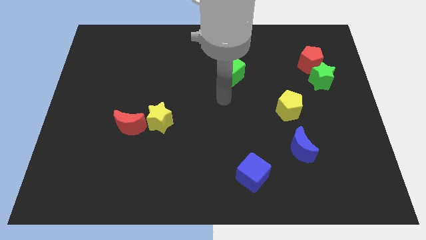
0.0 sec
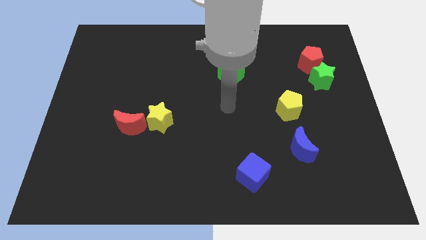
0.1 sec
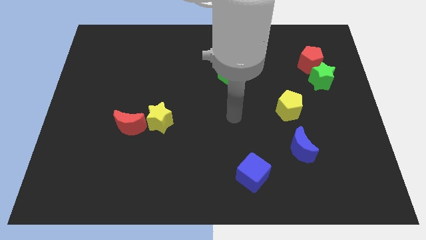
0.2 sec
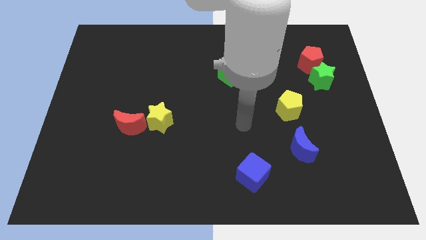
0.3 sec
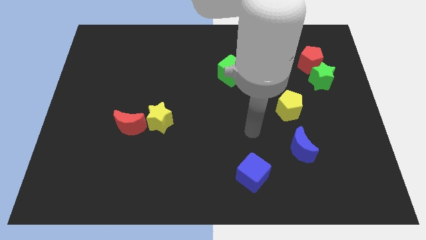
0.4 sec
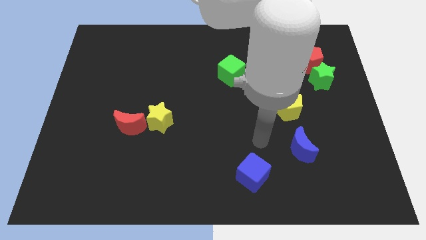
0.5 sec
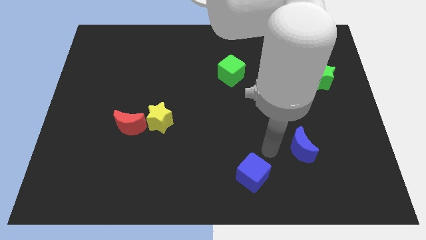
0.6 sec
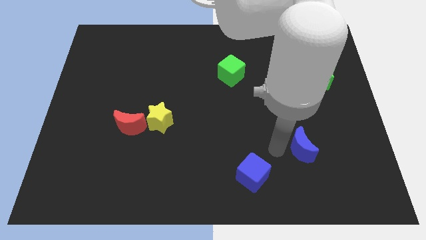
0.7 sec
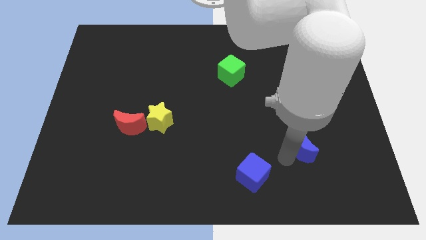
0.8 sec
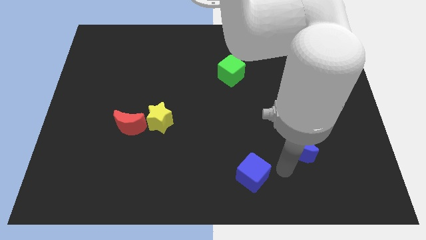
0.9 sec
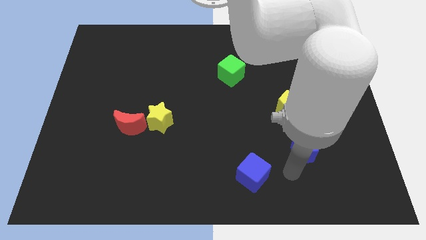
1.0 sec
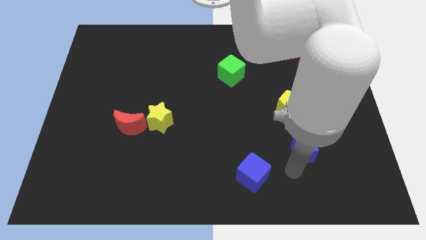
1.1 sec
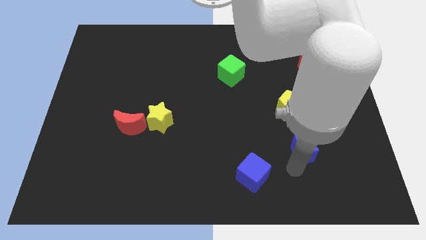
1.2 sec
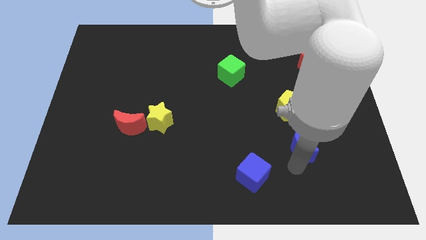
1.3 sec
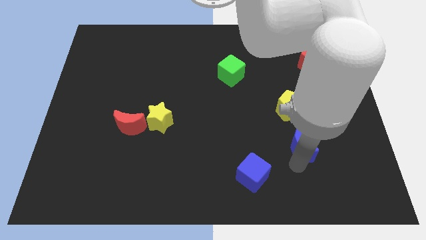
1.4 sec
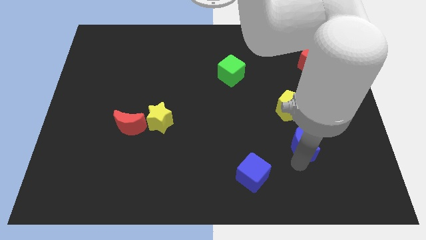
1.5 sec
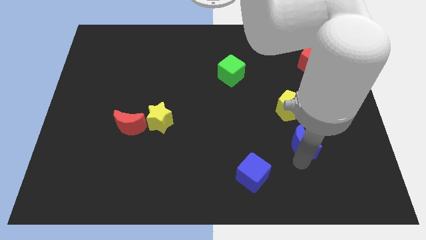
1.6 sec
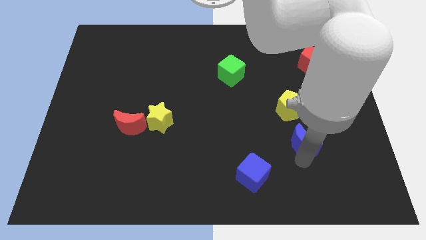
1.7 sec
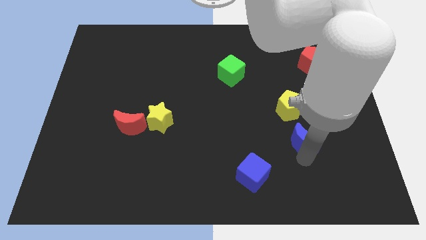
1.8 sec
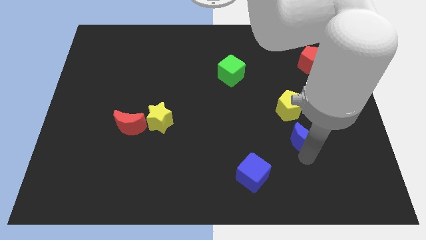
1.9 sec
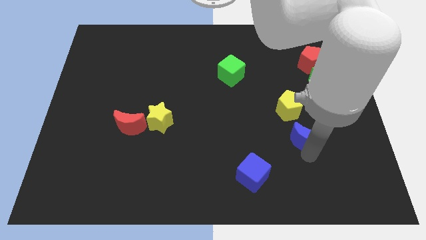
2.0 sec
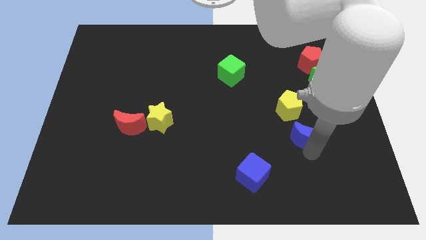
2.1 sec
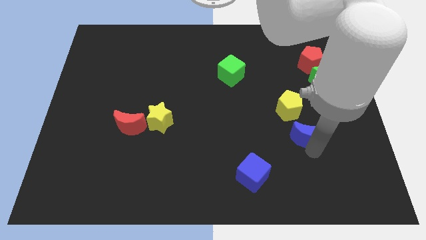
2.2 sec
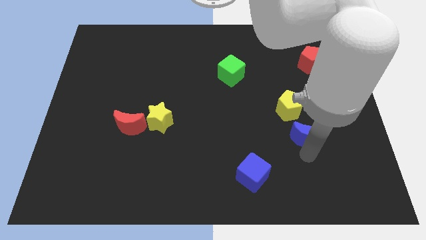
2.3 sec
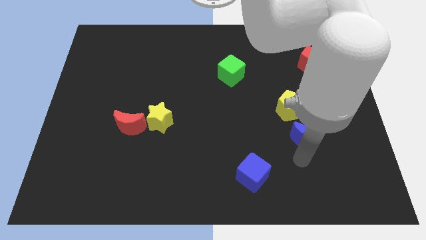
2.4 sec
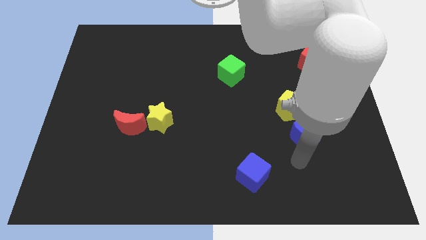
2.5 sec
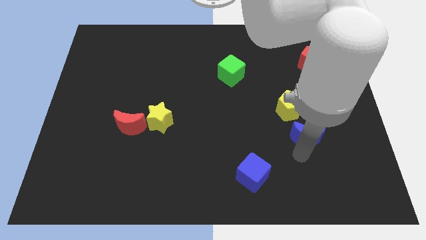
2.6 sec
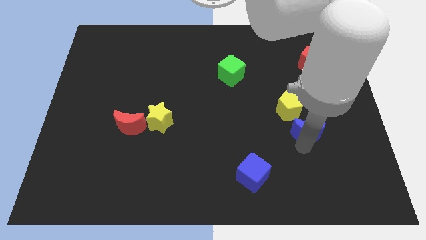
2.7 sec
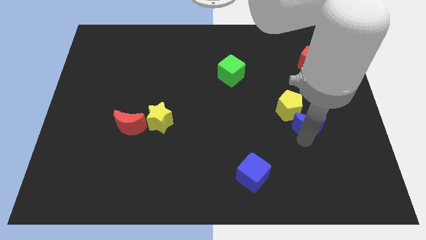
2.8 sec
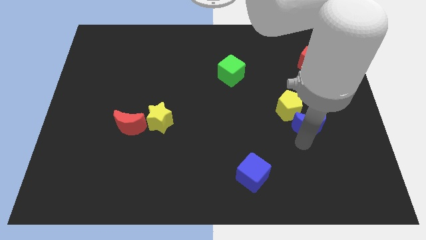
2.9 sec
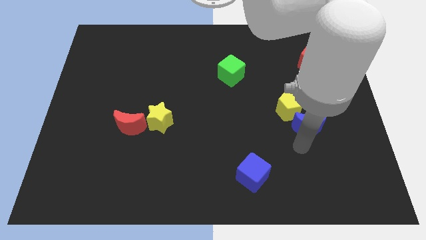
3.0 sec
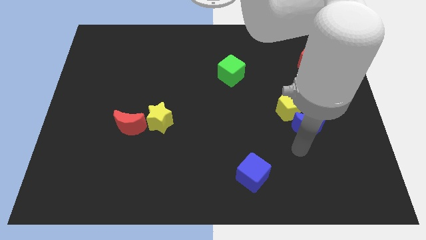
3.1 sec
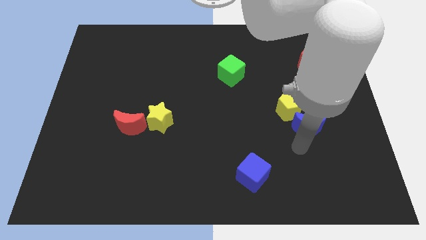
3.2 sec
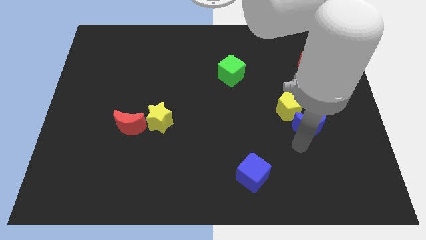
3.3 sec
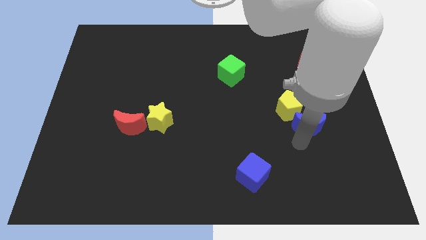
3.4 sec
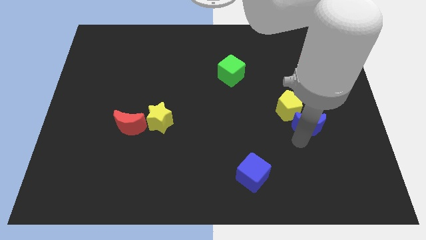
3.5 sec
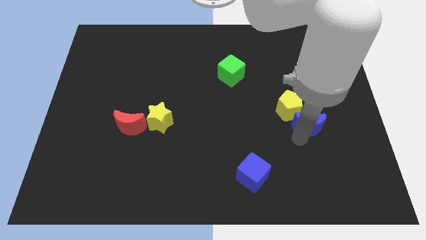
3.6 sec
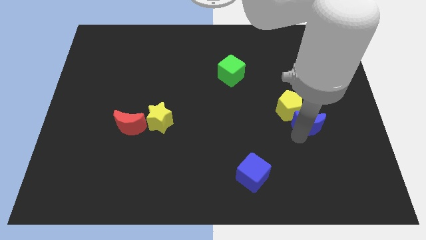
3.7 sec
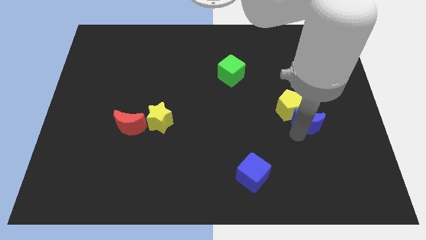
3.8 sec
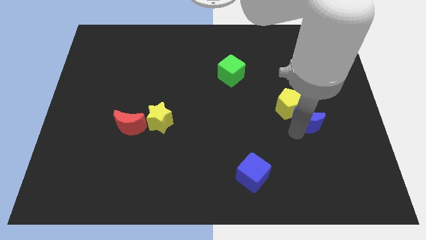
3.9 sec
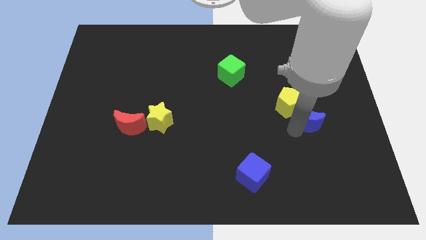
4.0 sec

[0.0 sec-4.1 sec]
slide the blue moon a bit up

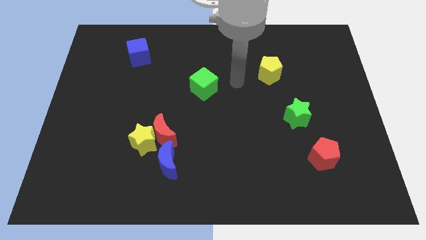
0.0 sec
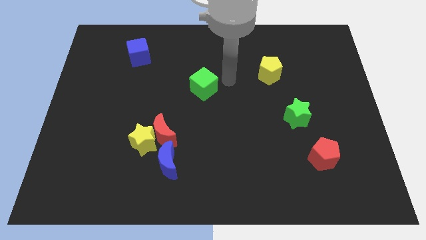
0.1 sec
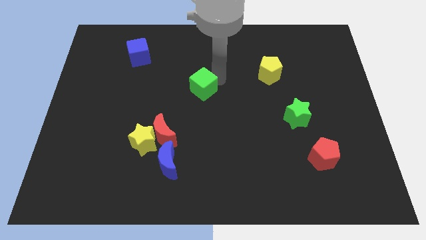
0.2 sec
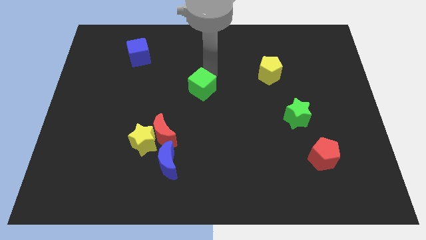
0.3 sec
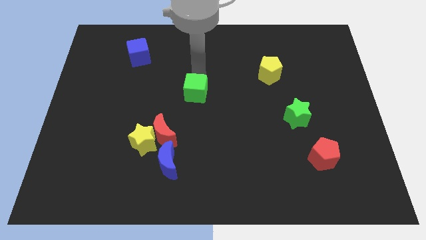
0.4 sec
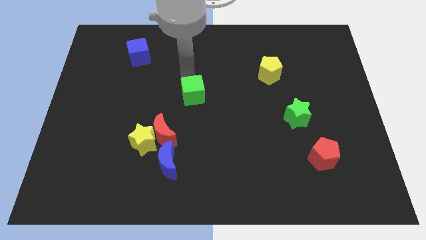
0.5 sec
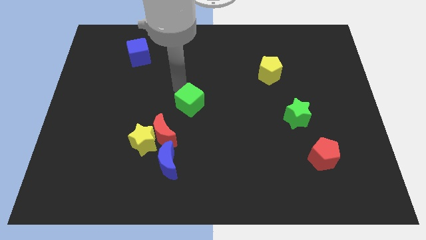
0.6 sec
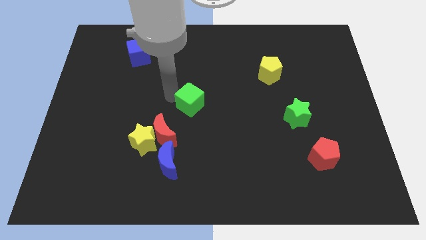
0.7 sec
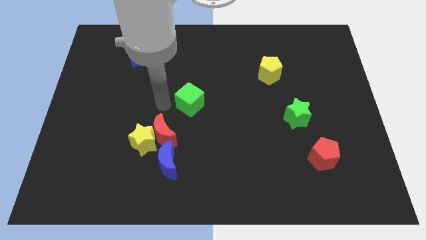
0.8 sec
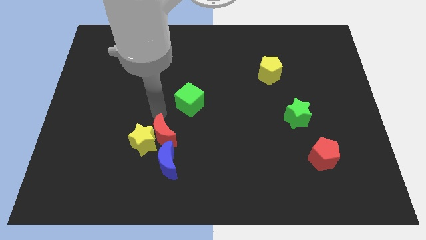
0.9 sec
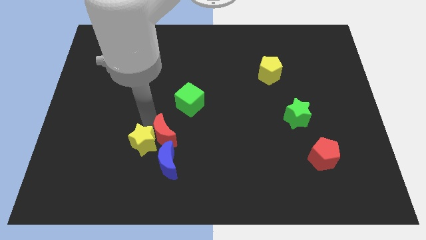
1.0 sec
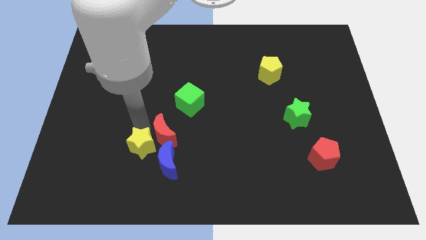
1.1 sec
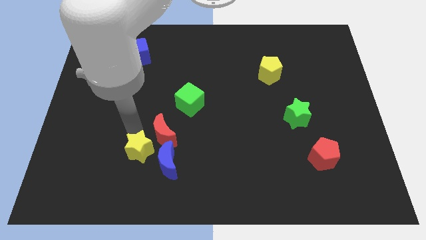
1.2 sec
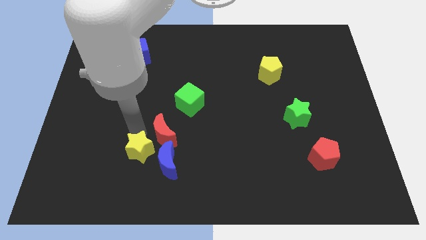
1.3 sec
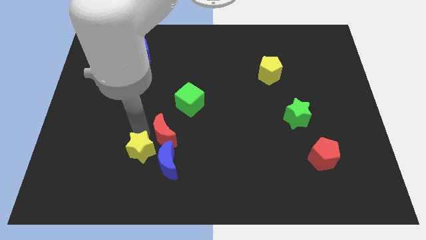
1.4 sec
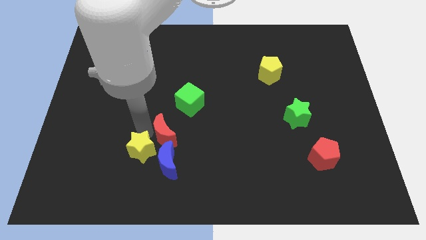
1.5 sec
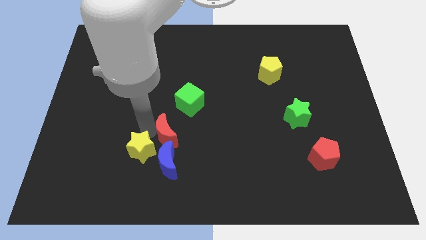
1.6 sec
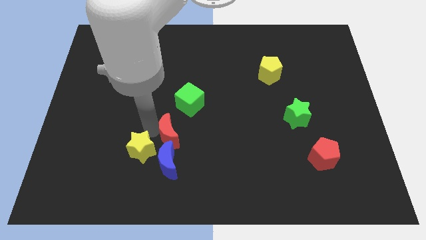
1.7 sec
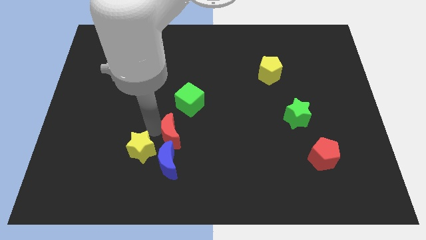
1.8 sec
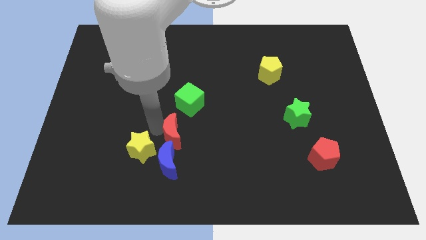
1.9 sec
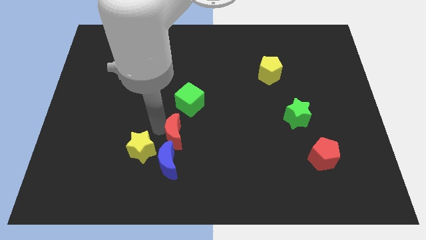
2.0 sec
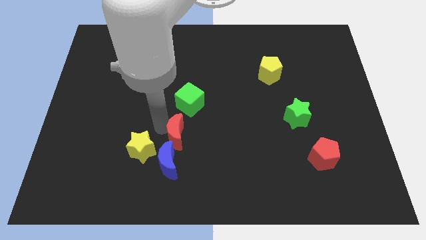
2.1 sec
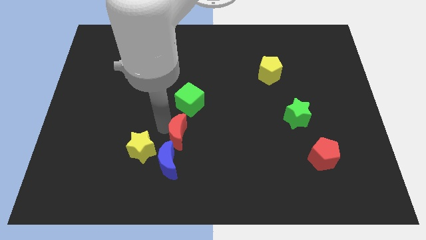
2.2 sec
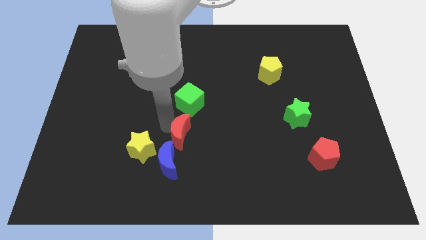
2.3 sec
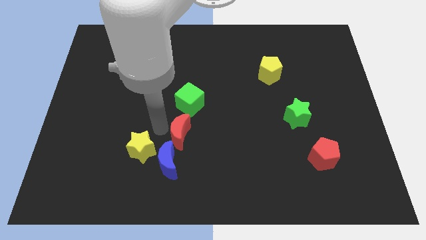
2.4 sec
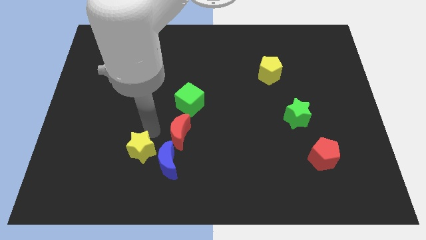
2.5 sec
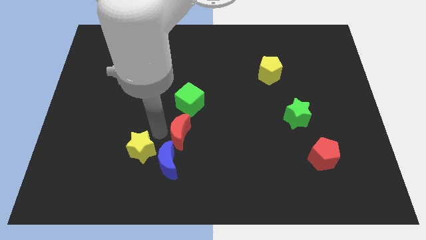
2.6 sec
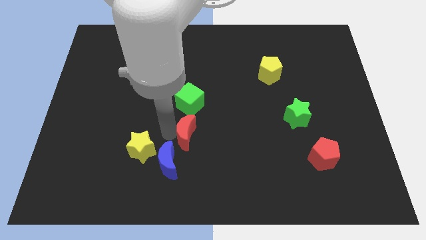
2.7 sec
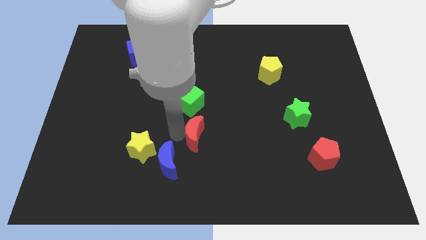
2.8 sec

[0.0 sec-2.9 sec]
push the red moon to the right a bit

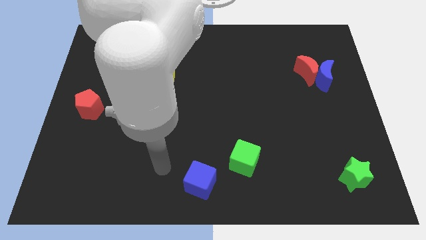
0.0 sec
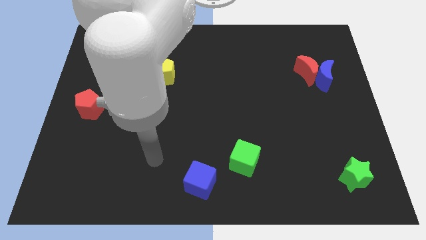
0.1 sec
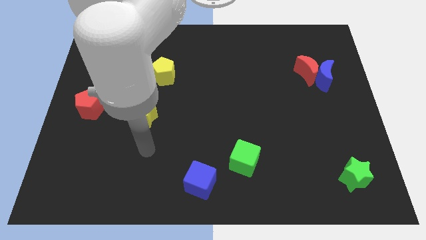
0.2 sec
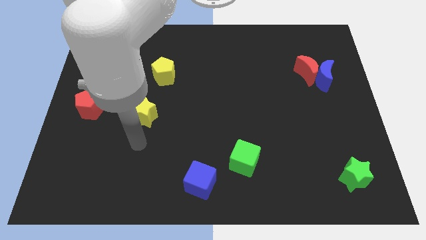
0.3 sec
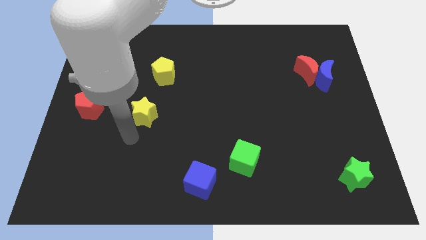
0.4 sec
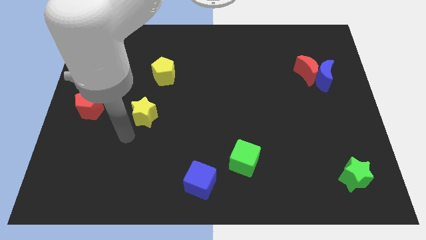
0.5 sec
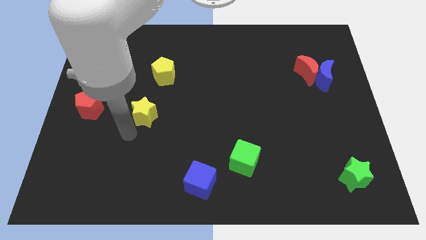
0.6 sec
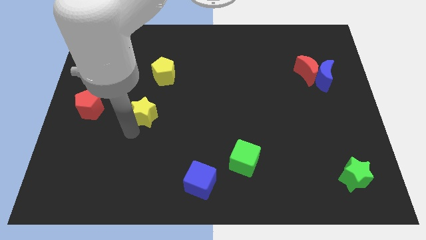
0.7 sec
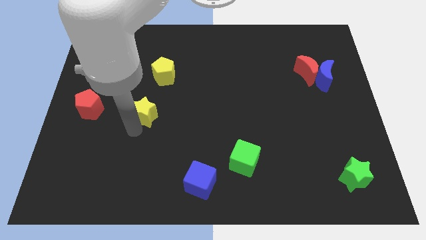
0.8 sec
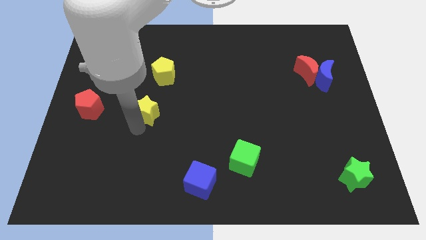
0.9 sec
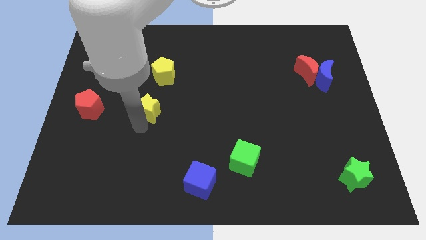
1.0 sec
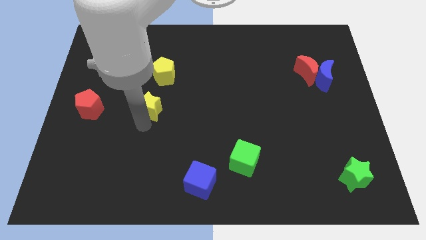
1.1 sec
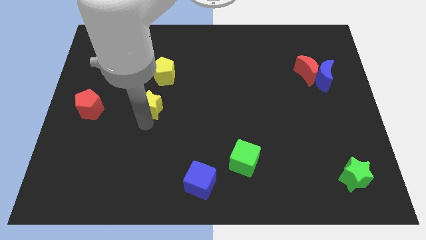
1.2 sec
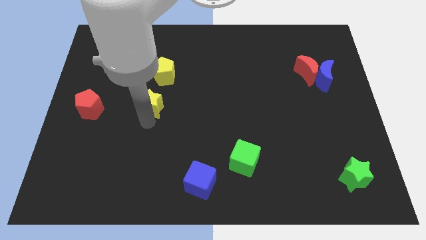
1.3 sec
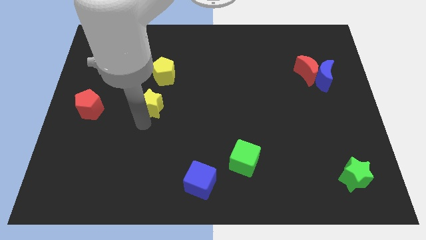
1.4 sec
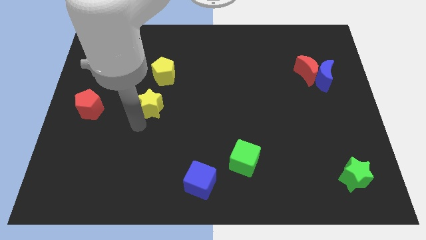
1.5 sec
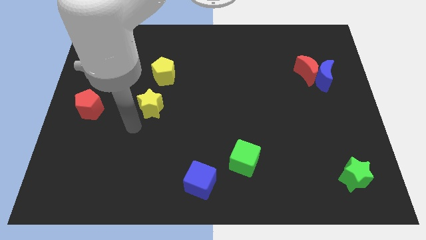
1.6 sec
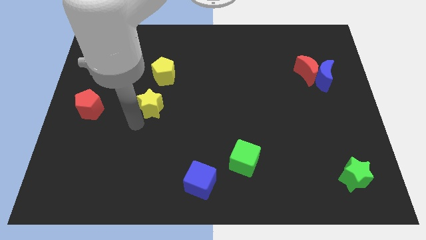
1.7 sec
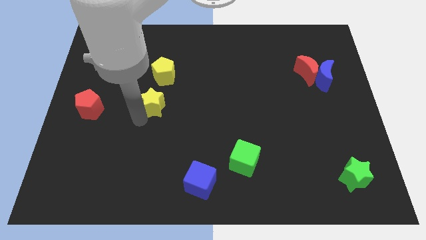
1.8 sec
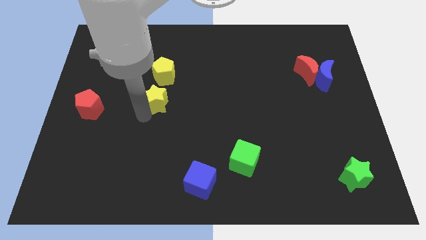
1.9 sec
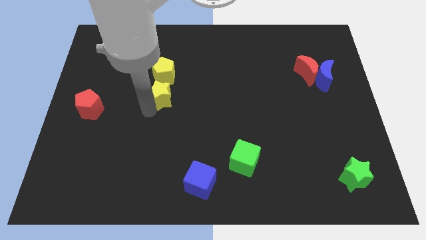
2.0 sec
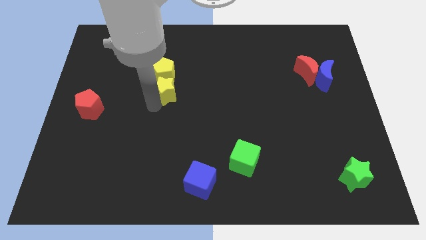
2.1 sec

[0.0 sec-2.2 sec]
move the yellow star up and to the right diagonally a little
